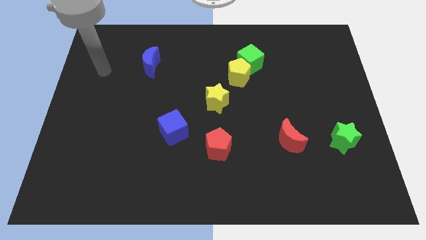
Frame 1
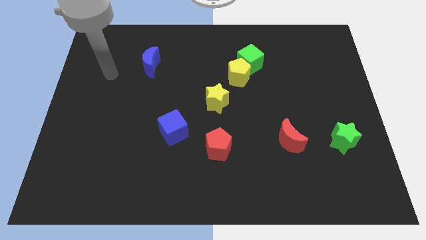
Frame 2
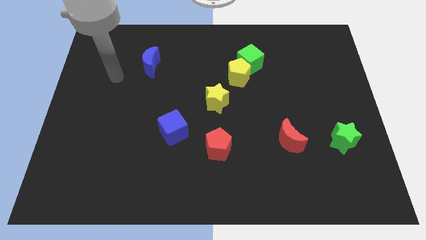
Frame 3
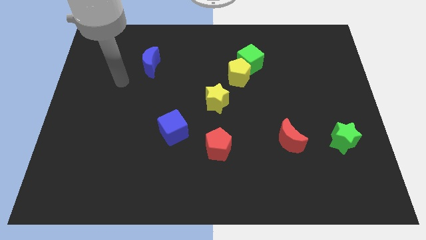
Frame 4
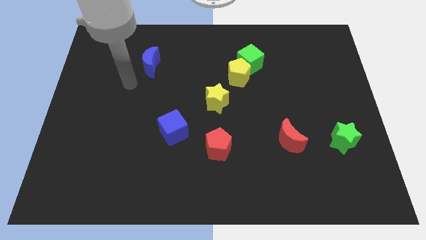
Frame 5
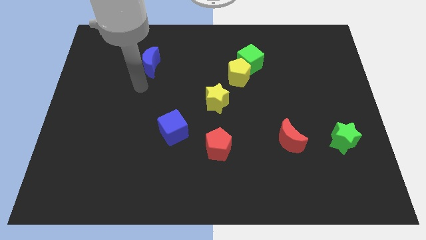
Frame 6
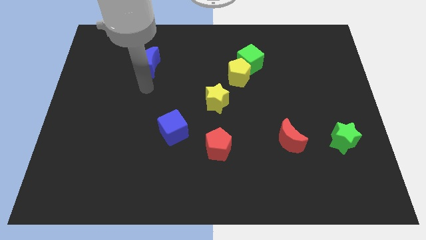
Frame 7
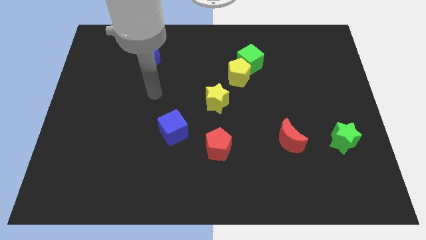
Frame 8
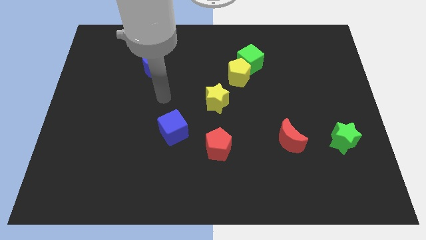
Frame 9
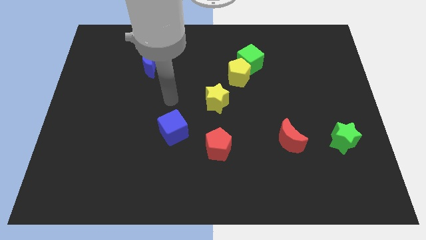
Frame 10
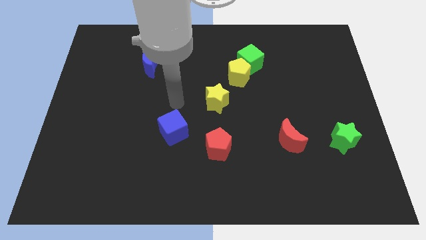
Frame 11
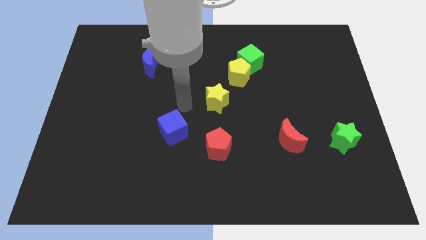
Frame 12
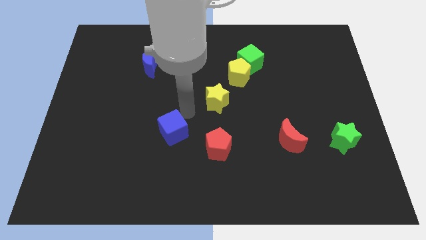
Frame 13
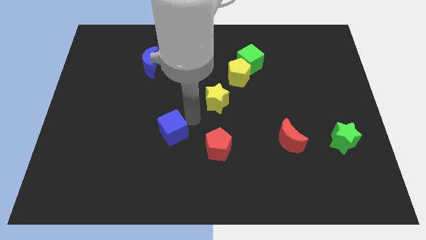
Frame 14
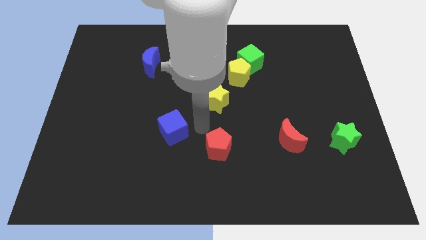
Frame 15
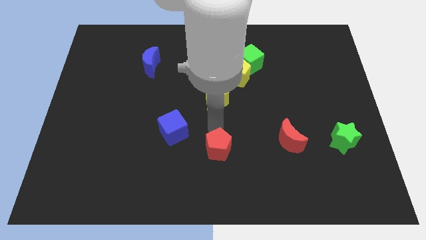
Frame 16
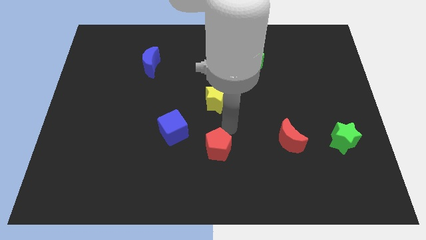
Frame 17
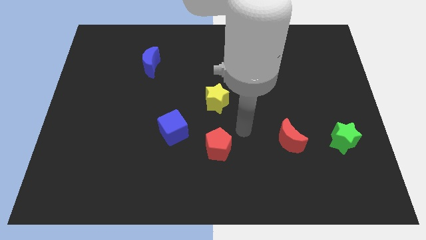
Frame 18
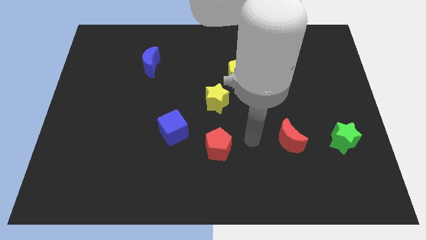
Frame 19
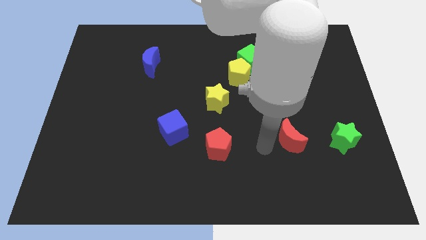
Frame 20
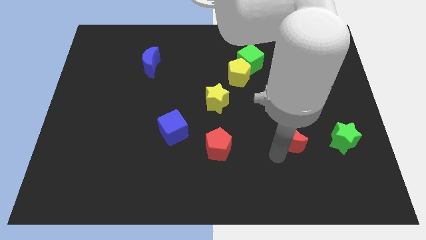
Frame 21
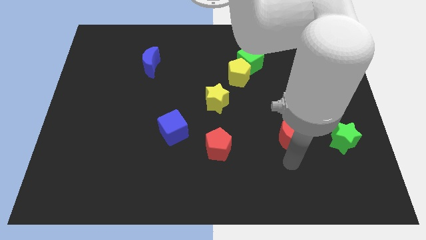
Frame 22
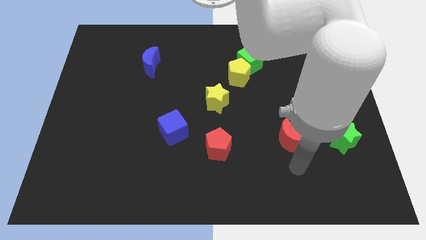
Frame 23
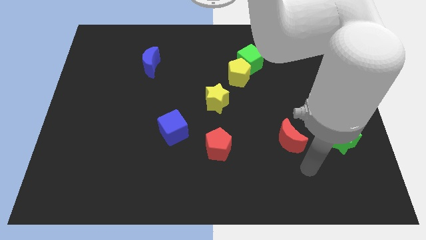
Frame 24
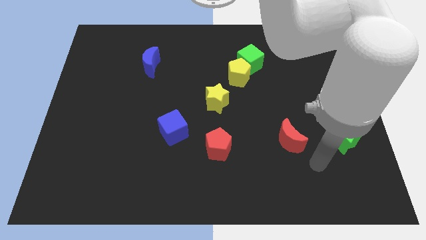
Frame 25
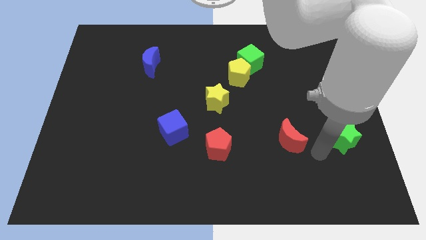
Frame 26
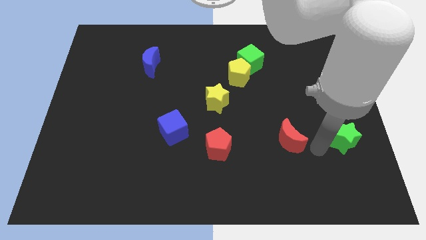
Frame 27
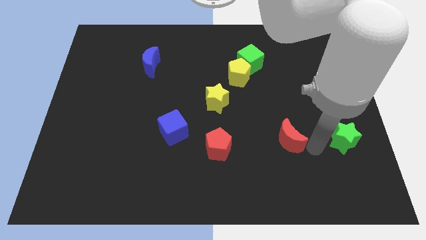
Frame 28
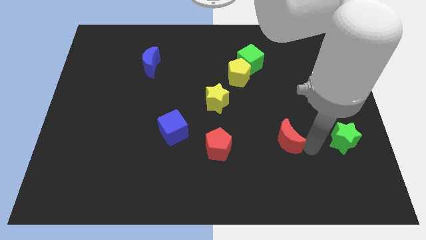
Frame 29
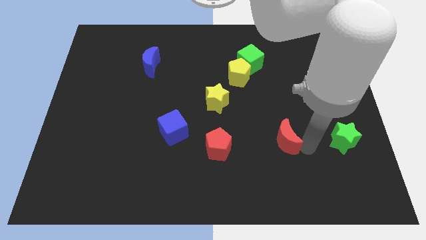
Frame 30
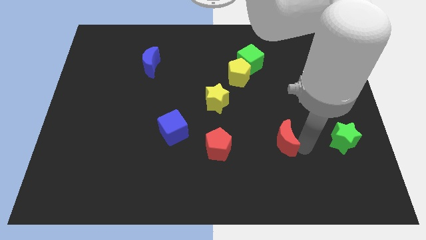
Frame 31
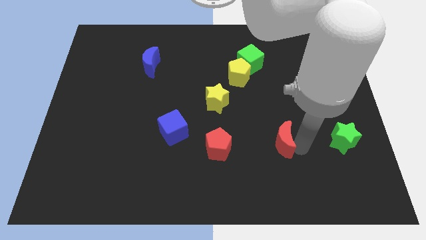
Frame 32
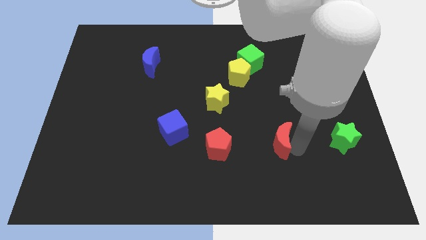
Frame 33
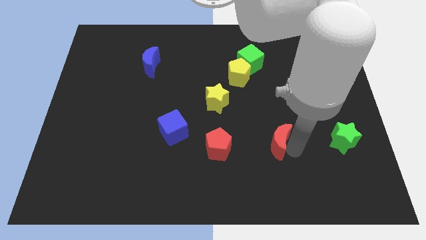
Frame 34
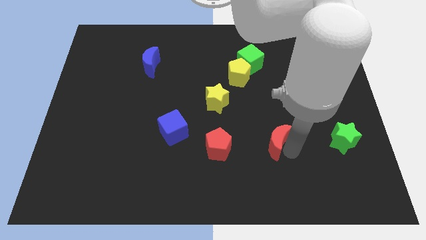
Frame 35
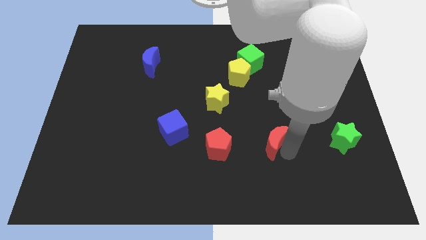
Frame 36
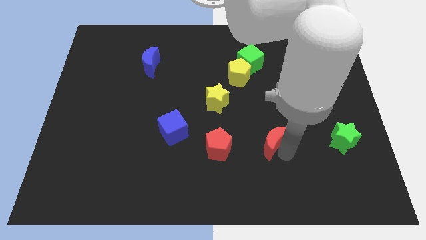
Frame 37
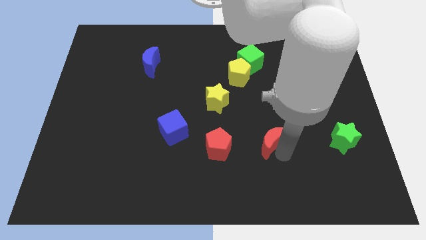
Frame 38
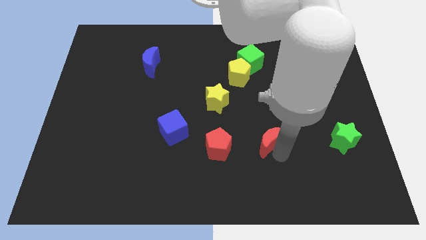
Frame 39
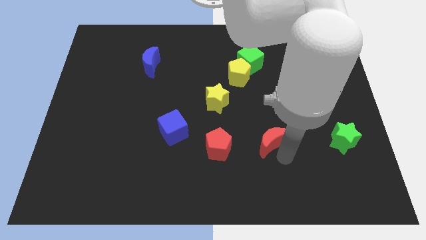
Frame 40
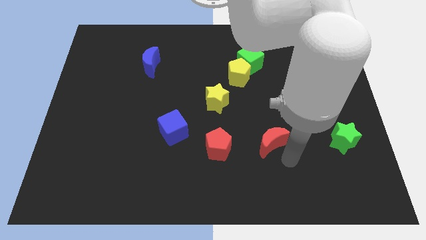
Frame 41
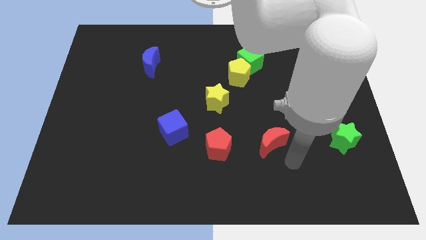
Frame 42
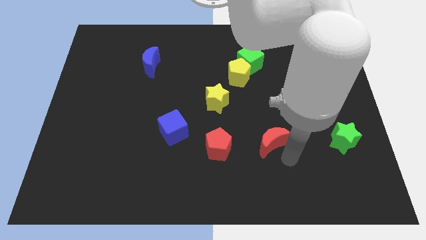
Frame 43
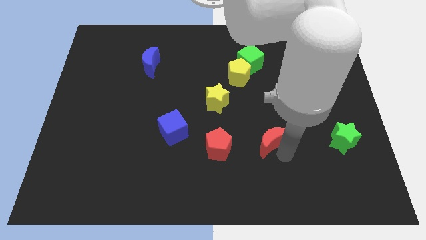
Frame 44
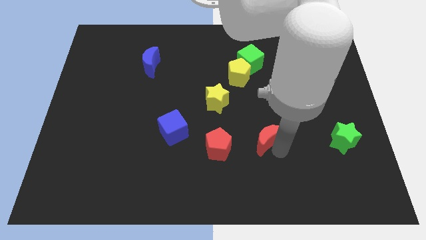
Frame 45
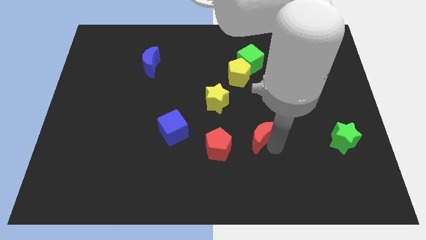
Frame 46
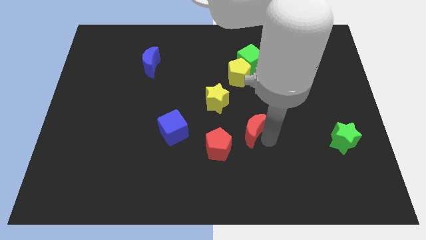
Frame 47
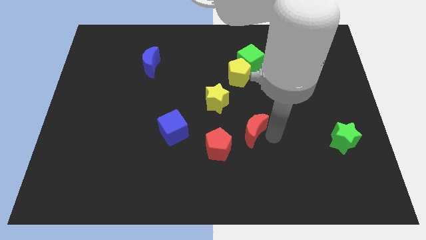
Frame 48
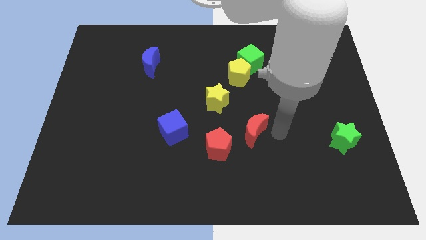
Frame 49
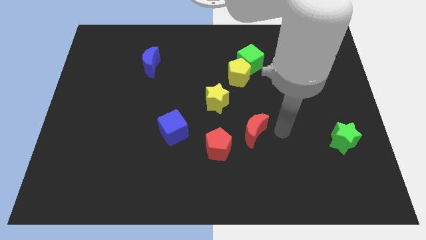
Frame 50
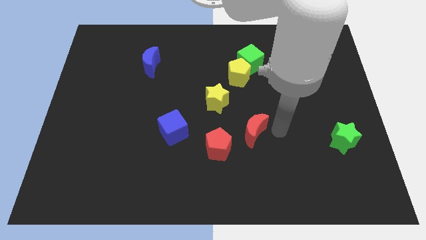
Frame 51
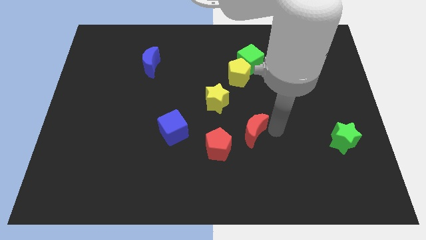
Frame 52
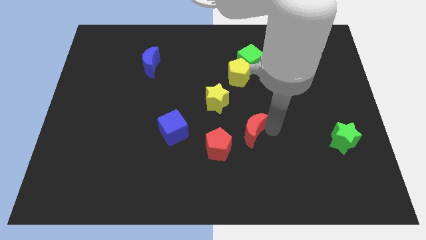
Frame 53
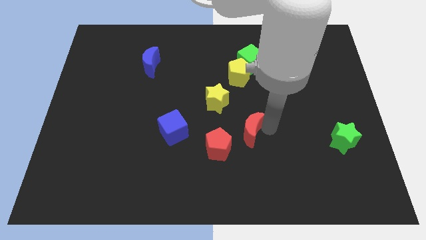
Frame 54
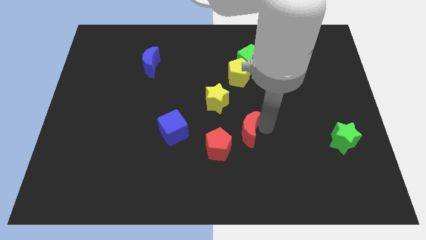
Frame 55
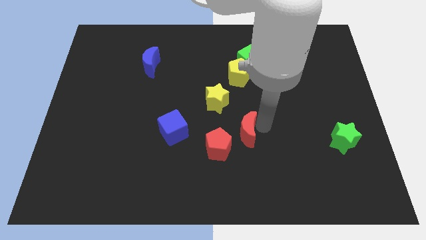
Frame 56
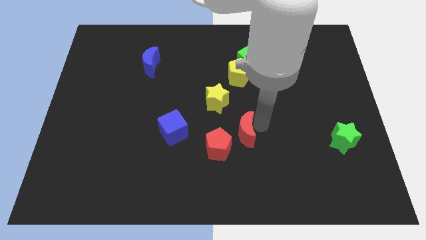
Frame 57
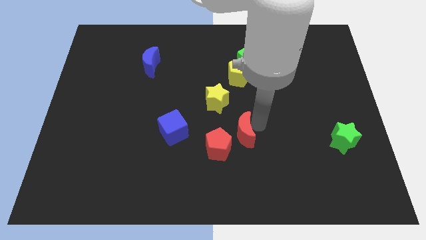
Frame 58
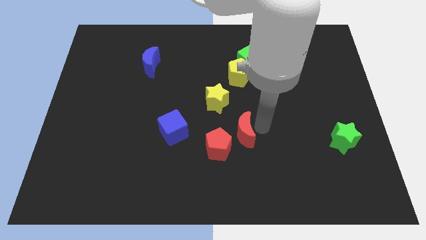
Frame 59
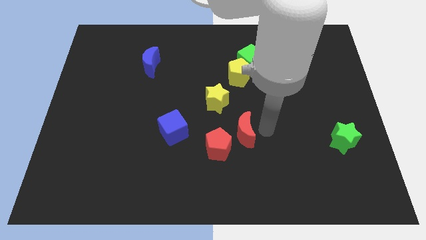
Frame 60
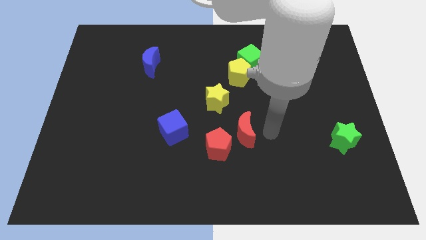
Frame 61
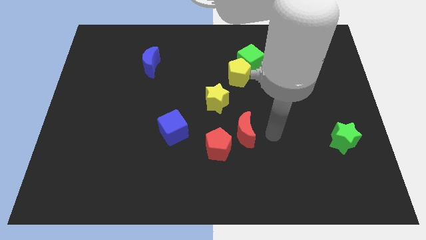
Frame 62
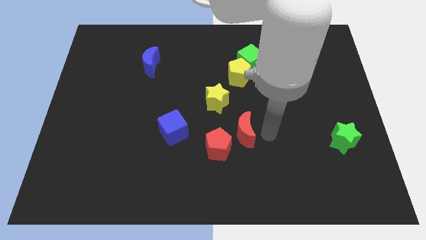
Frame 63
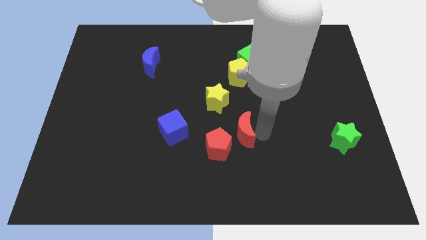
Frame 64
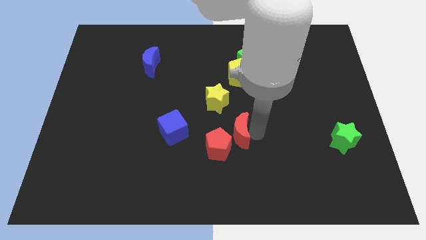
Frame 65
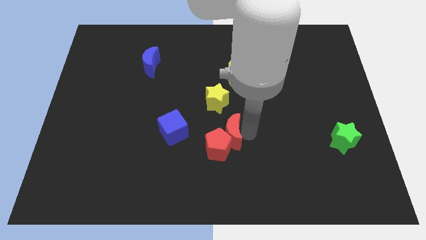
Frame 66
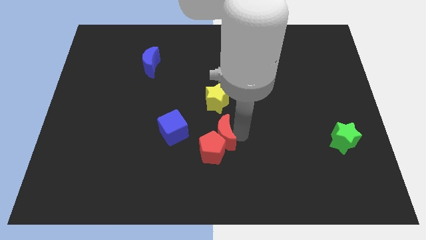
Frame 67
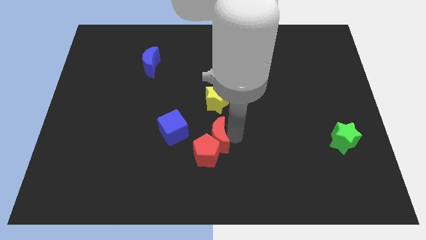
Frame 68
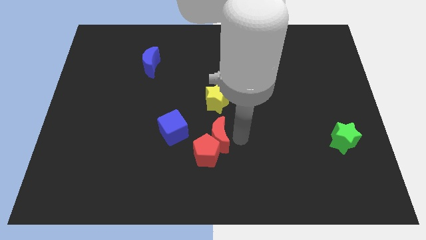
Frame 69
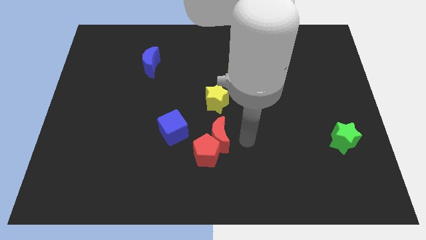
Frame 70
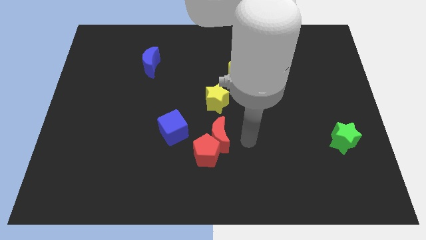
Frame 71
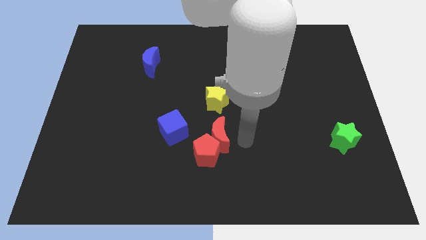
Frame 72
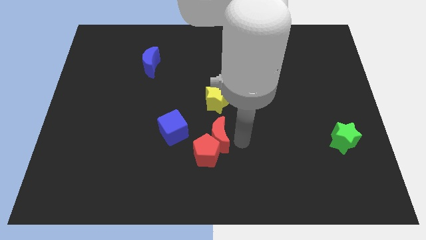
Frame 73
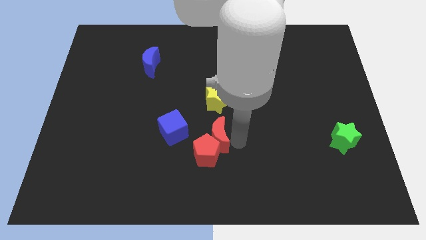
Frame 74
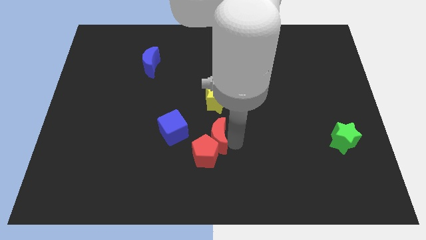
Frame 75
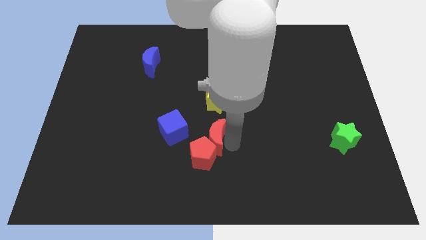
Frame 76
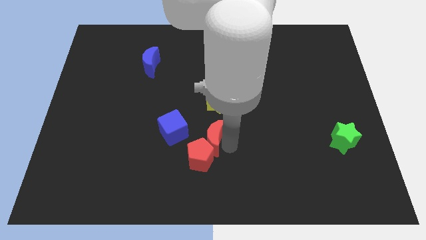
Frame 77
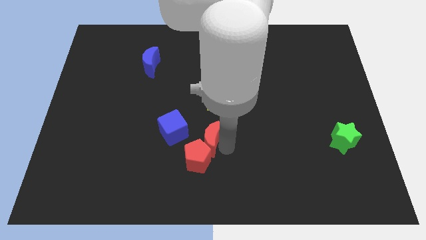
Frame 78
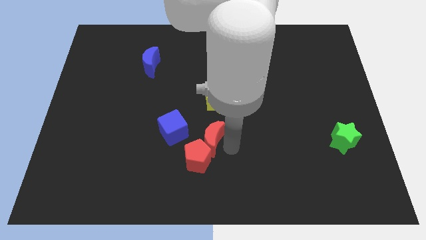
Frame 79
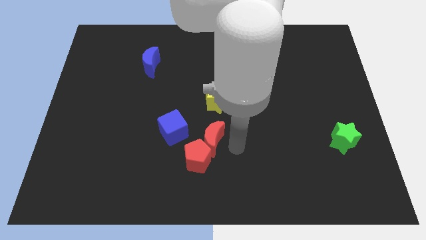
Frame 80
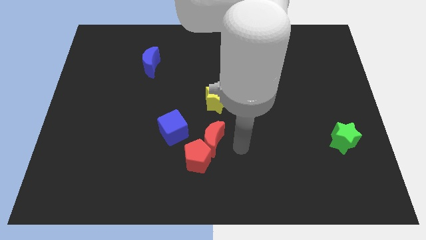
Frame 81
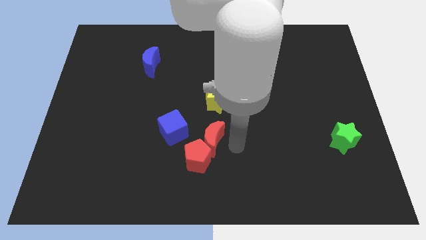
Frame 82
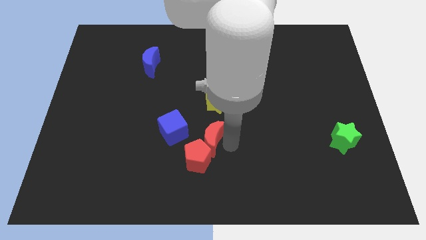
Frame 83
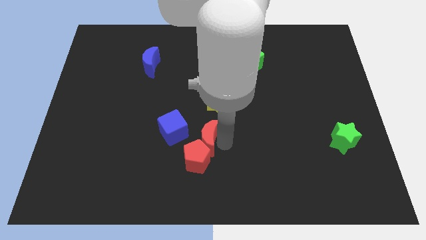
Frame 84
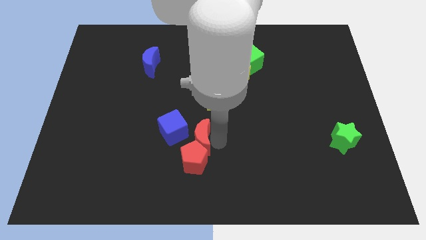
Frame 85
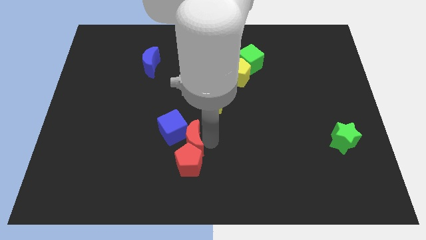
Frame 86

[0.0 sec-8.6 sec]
push the red moon next to the blue cube
